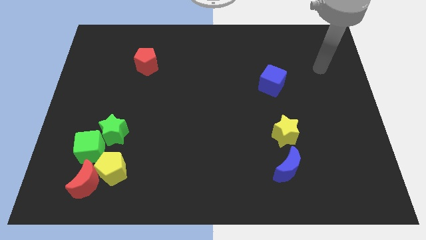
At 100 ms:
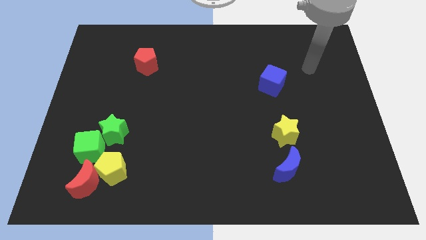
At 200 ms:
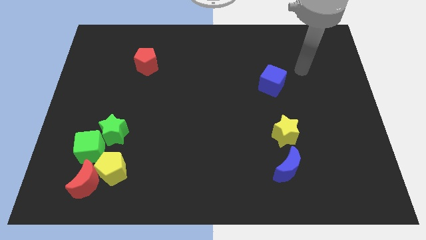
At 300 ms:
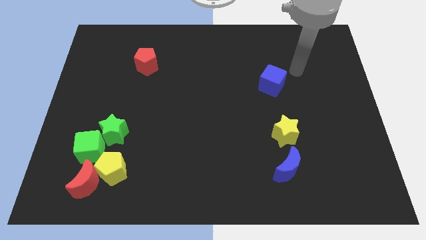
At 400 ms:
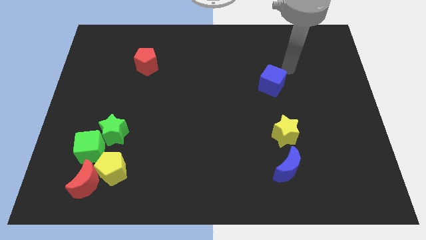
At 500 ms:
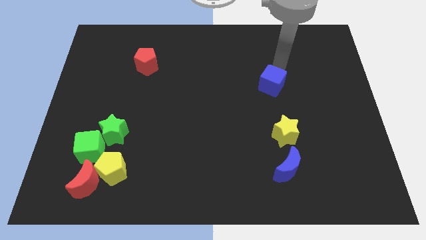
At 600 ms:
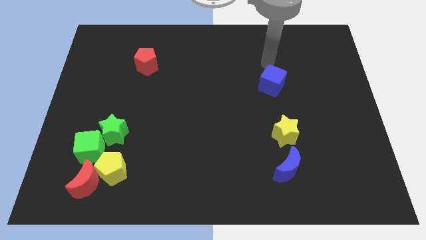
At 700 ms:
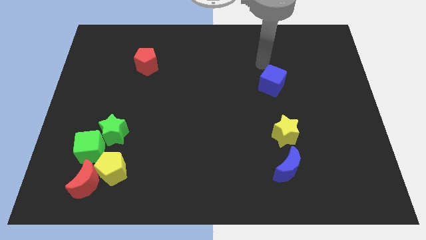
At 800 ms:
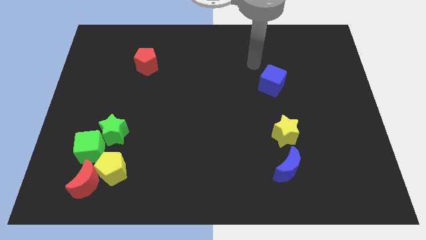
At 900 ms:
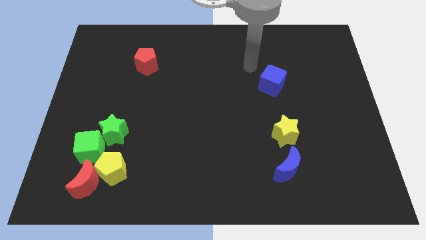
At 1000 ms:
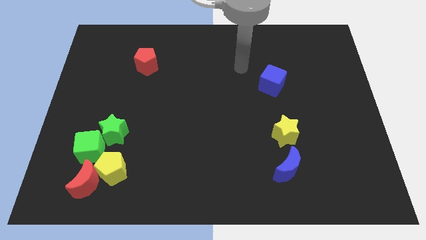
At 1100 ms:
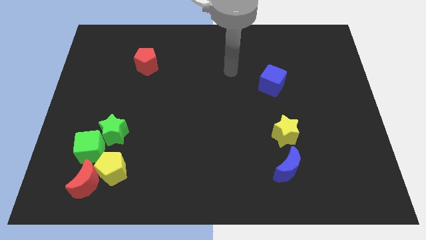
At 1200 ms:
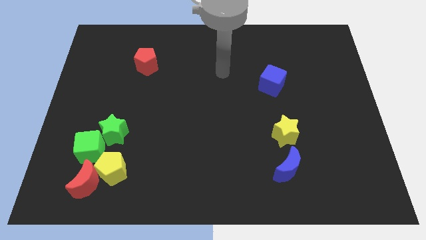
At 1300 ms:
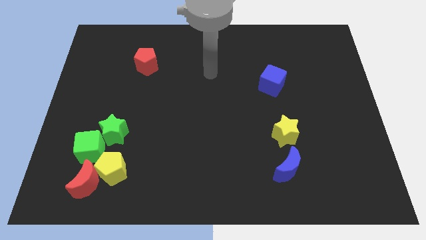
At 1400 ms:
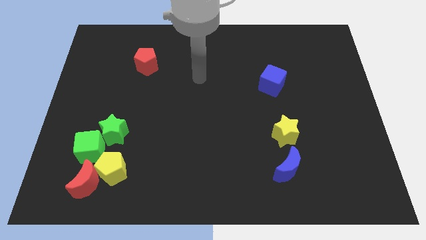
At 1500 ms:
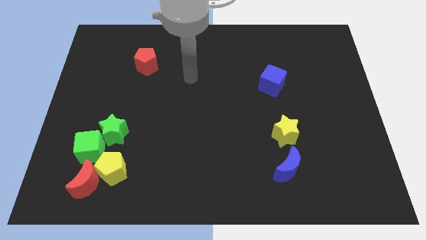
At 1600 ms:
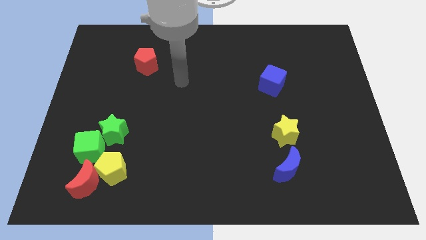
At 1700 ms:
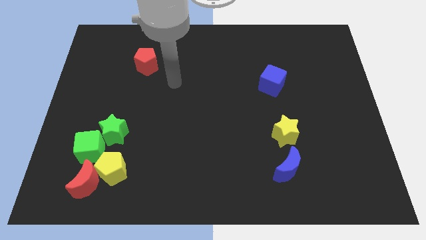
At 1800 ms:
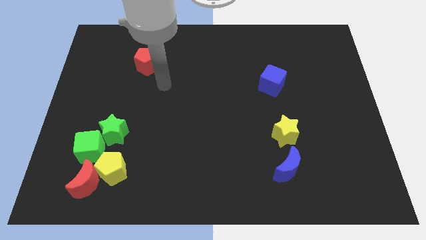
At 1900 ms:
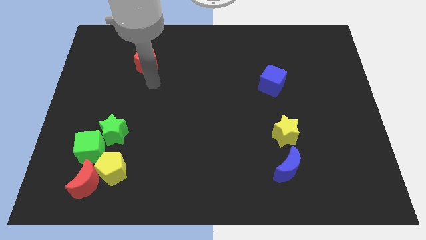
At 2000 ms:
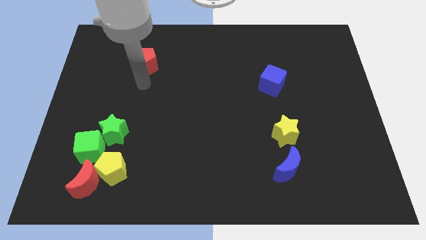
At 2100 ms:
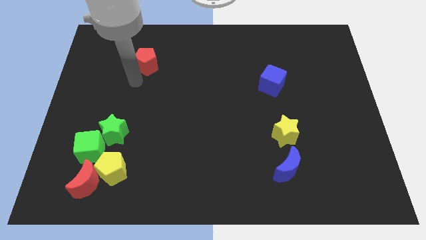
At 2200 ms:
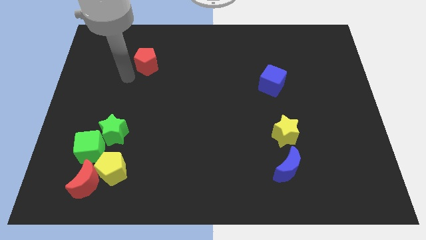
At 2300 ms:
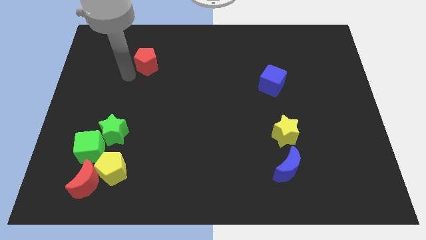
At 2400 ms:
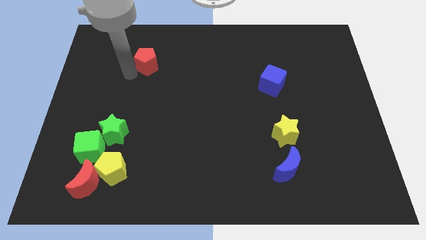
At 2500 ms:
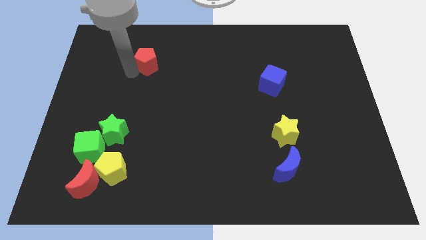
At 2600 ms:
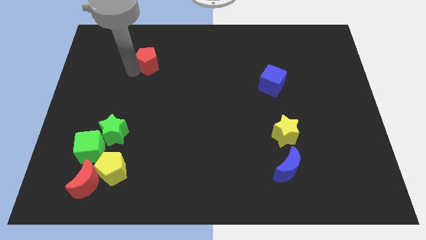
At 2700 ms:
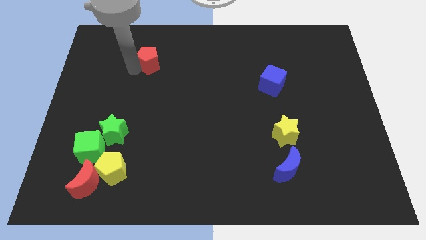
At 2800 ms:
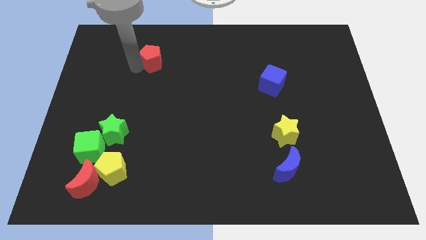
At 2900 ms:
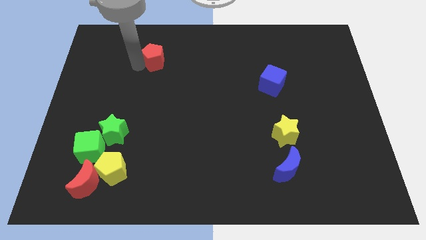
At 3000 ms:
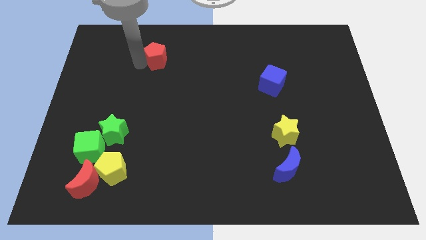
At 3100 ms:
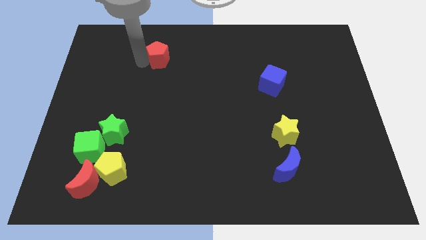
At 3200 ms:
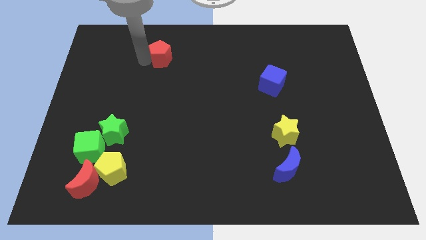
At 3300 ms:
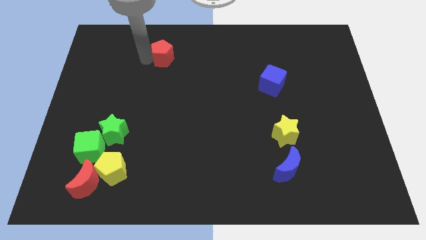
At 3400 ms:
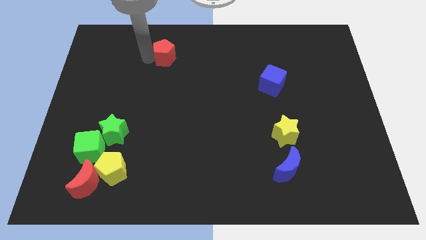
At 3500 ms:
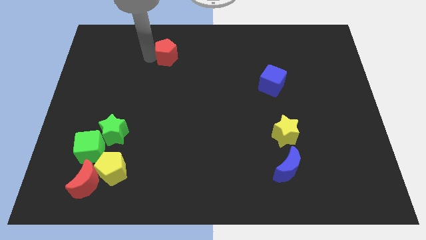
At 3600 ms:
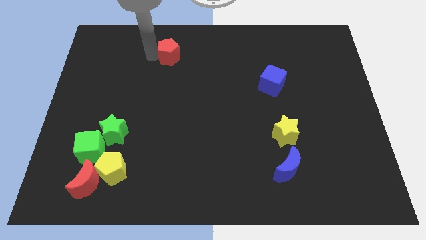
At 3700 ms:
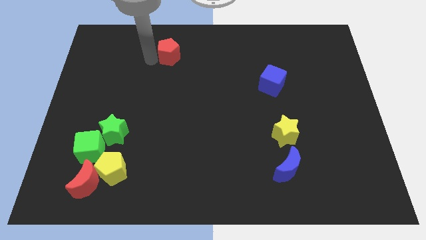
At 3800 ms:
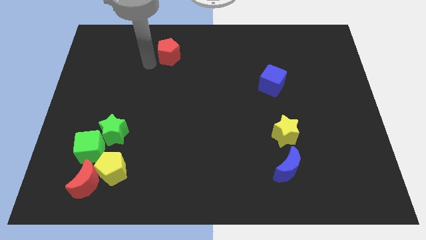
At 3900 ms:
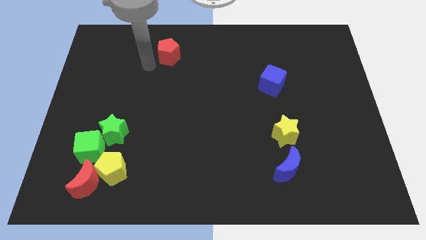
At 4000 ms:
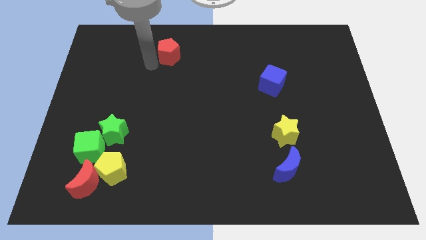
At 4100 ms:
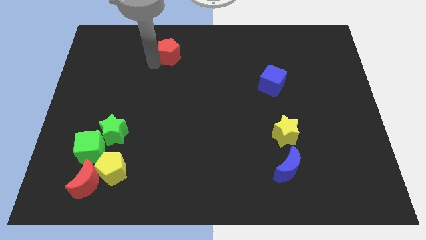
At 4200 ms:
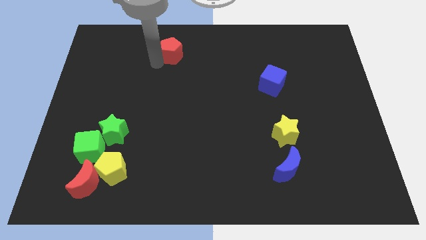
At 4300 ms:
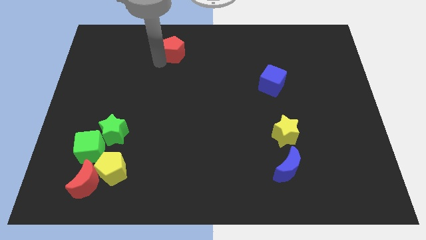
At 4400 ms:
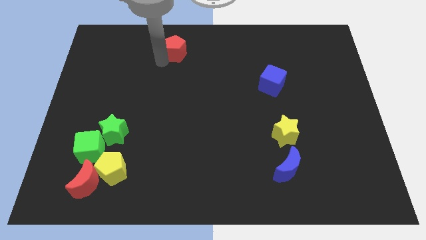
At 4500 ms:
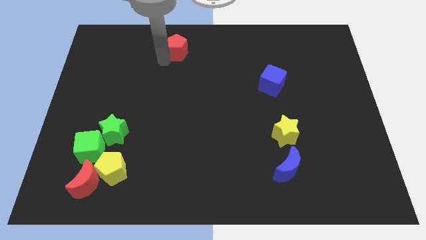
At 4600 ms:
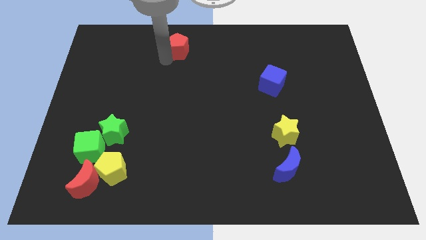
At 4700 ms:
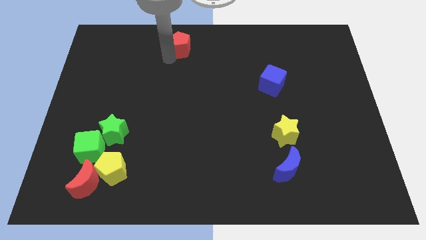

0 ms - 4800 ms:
push the red pentagon to the top

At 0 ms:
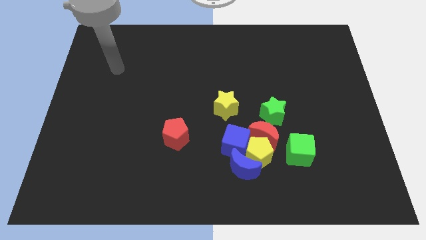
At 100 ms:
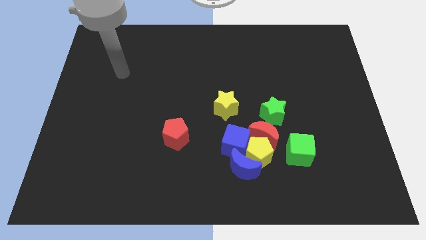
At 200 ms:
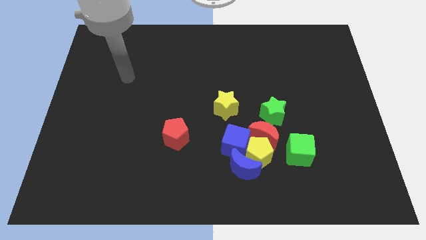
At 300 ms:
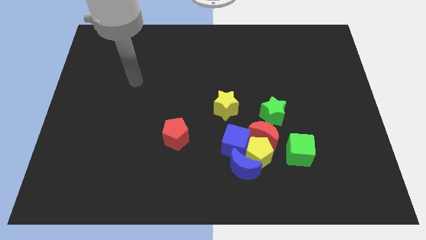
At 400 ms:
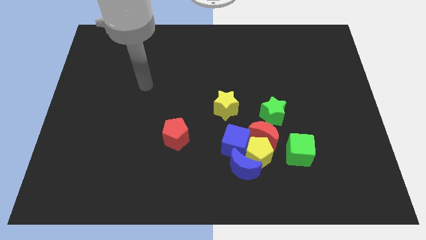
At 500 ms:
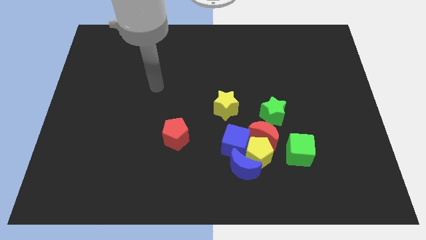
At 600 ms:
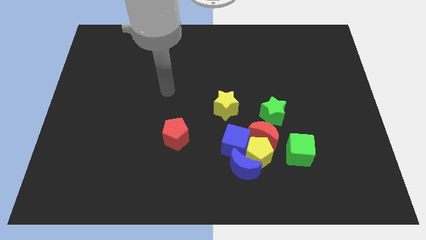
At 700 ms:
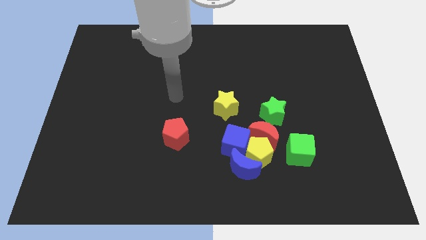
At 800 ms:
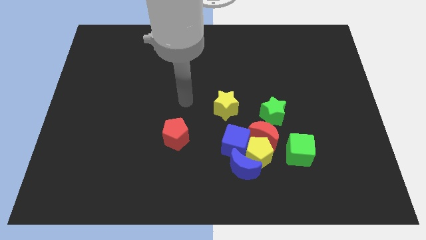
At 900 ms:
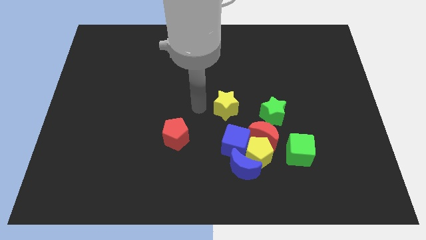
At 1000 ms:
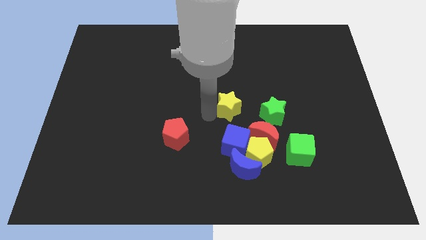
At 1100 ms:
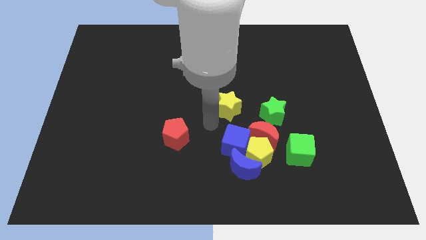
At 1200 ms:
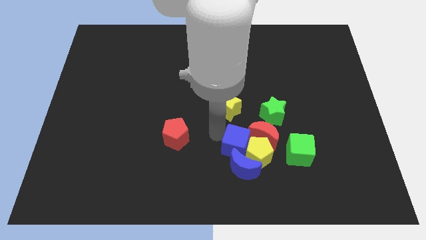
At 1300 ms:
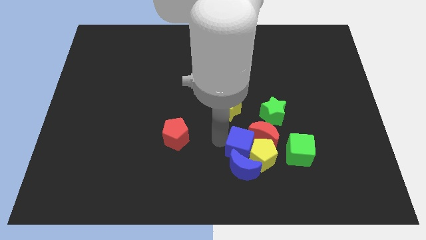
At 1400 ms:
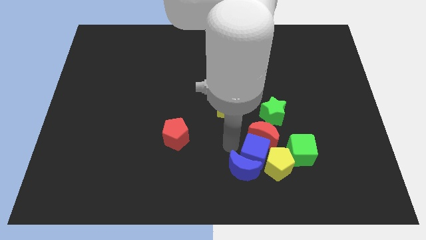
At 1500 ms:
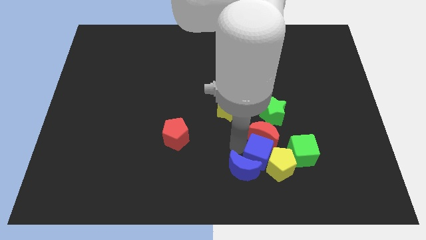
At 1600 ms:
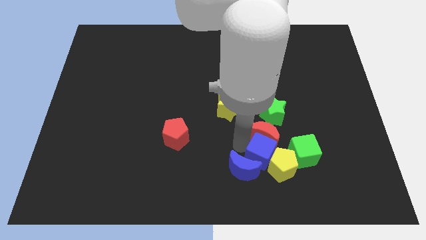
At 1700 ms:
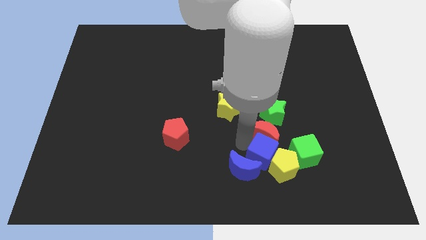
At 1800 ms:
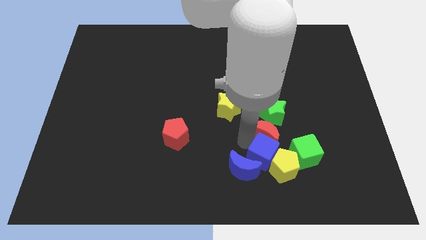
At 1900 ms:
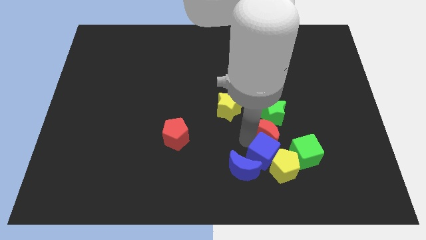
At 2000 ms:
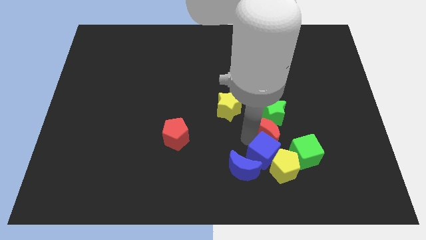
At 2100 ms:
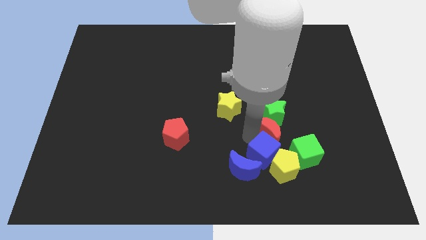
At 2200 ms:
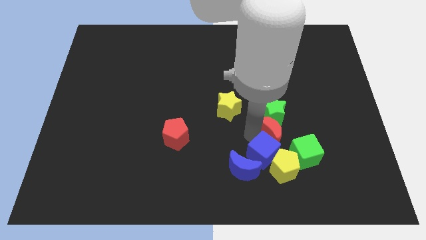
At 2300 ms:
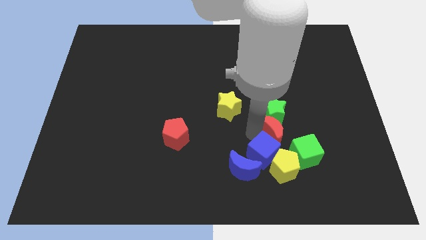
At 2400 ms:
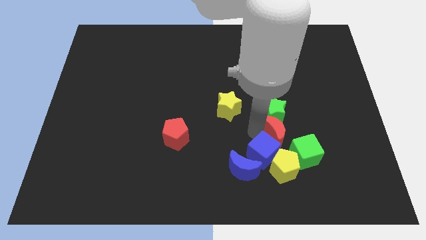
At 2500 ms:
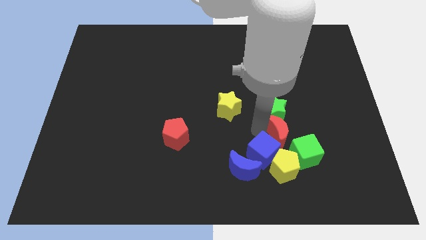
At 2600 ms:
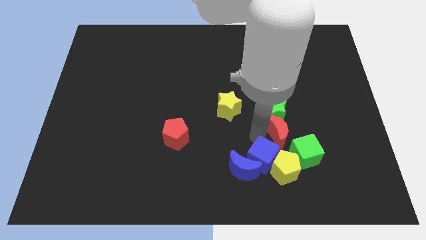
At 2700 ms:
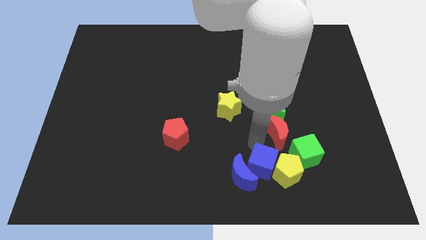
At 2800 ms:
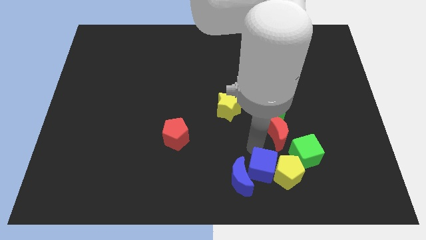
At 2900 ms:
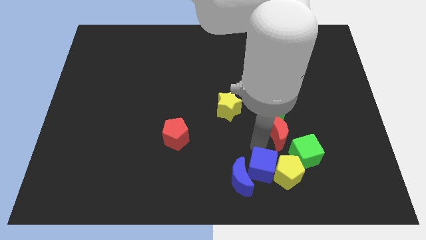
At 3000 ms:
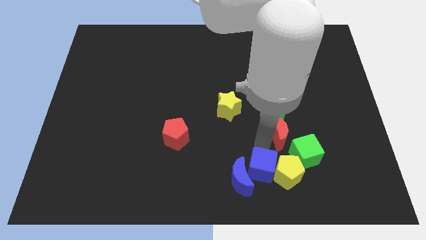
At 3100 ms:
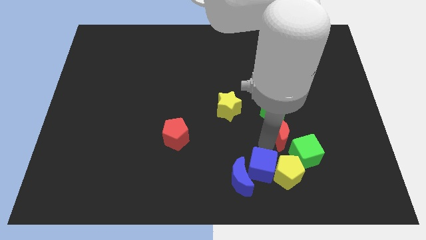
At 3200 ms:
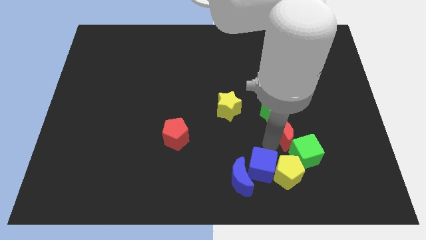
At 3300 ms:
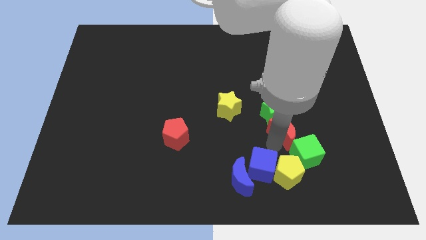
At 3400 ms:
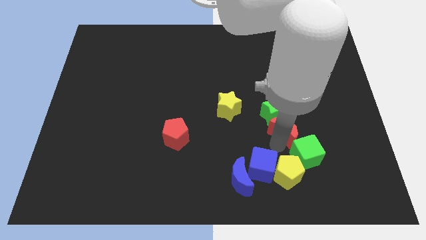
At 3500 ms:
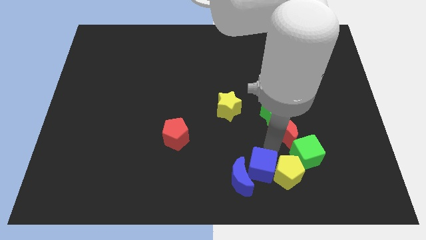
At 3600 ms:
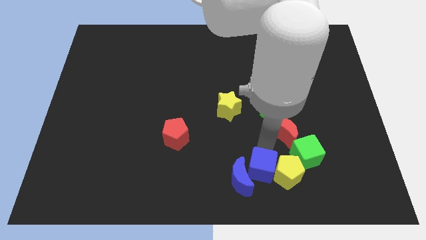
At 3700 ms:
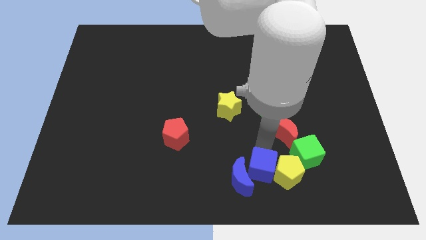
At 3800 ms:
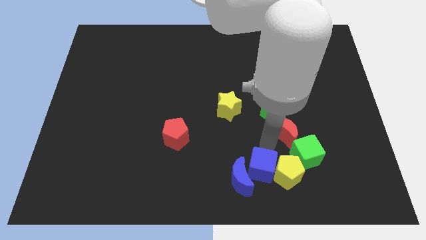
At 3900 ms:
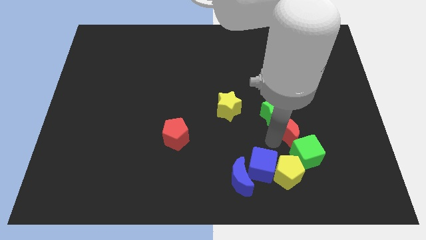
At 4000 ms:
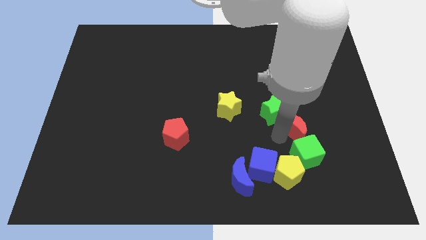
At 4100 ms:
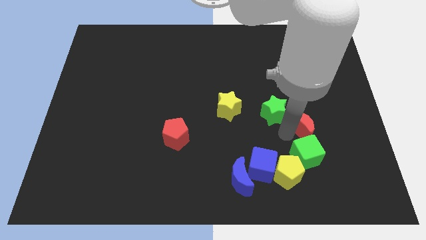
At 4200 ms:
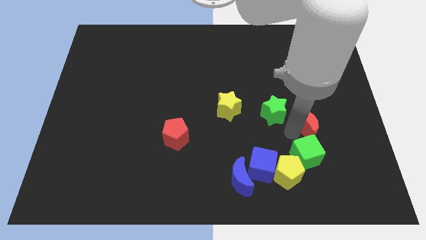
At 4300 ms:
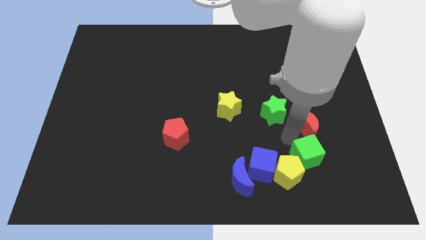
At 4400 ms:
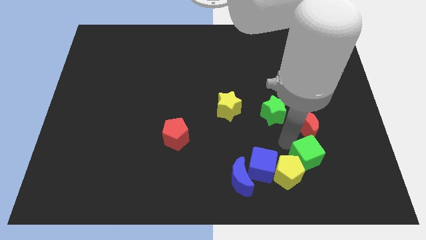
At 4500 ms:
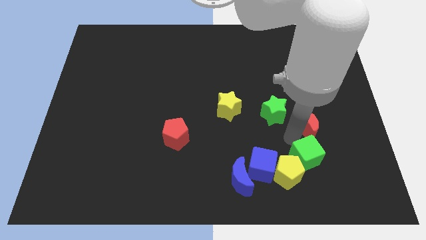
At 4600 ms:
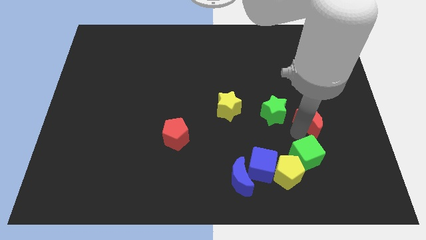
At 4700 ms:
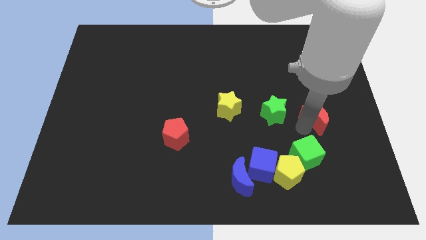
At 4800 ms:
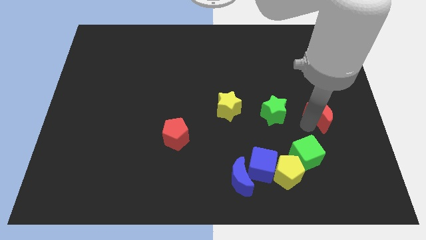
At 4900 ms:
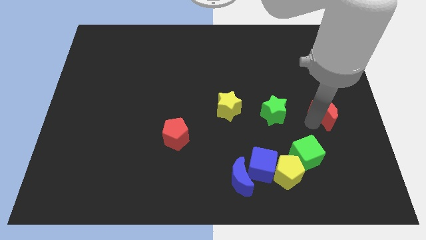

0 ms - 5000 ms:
push the red moon to the center right
